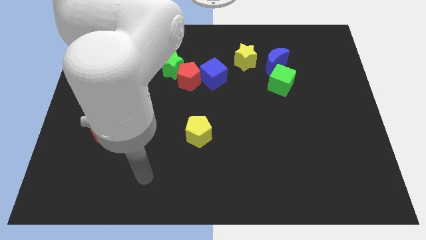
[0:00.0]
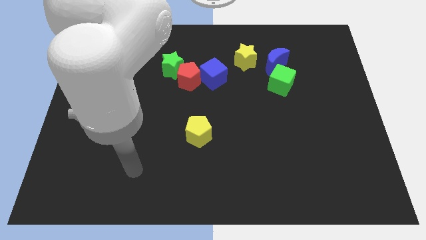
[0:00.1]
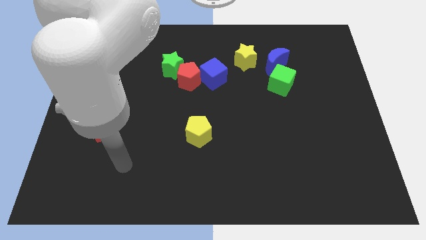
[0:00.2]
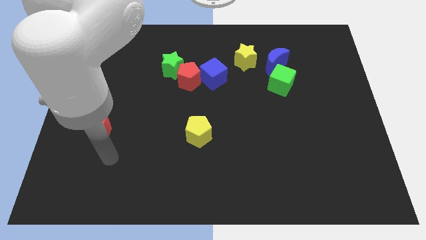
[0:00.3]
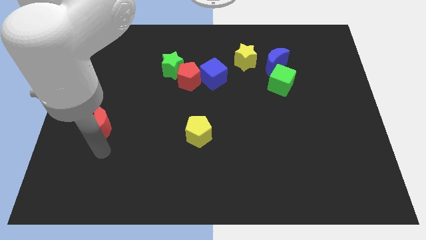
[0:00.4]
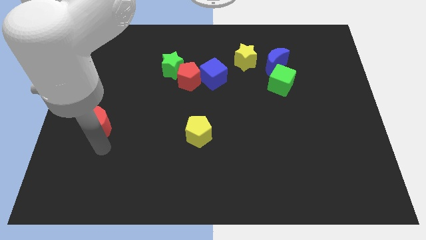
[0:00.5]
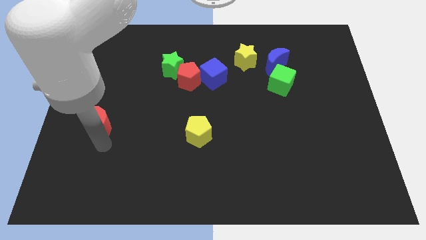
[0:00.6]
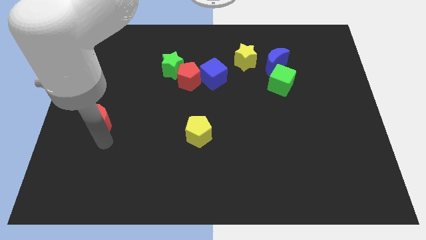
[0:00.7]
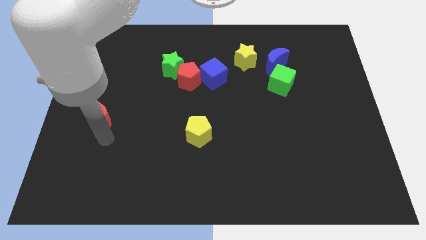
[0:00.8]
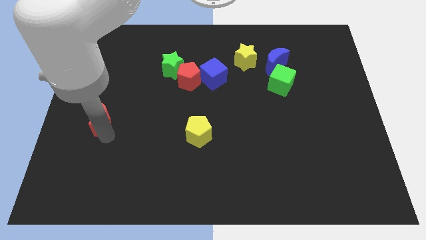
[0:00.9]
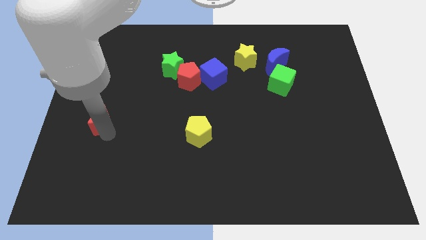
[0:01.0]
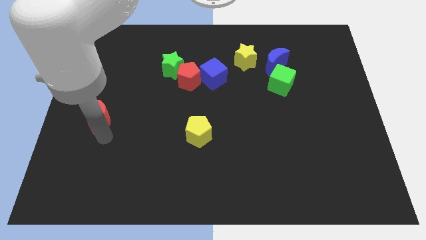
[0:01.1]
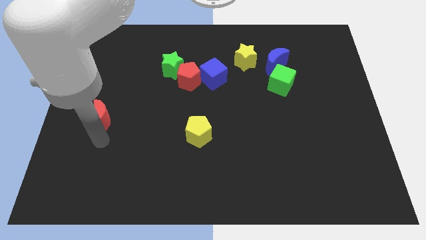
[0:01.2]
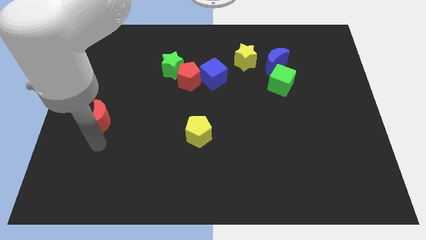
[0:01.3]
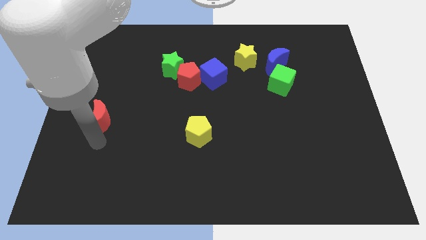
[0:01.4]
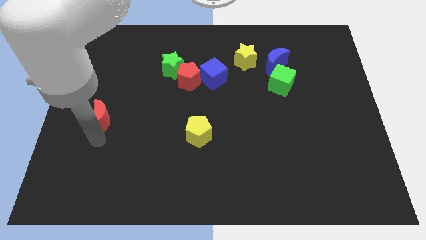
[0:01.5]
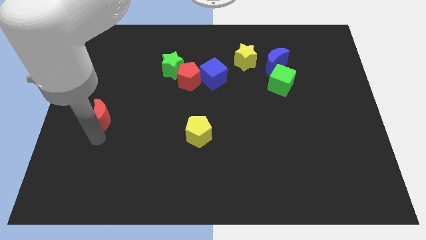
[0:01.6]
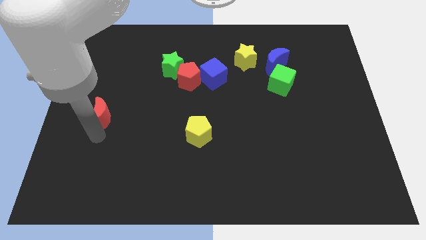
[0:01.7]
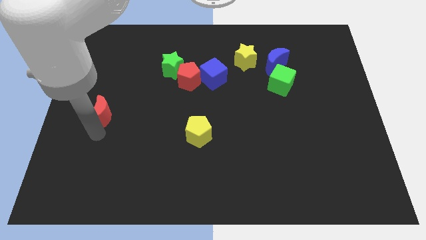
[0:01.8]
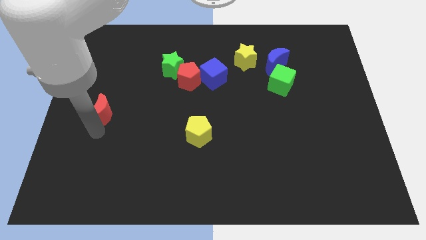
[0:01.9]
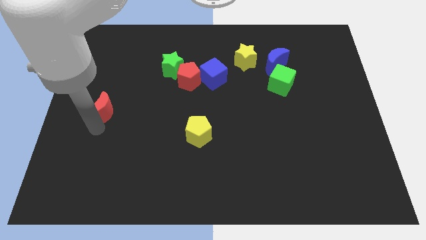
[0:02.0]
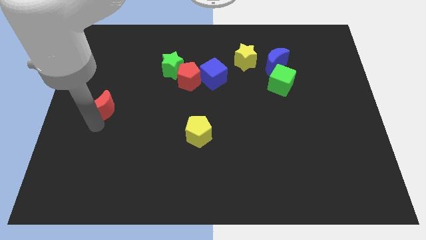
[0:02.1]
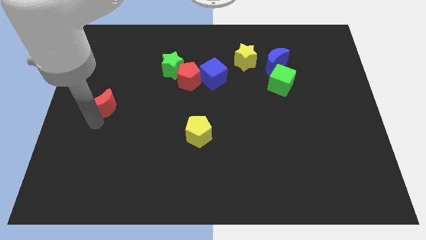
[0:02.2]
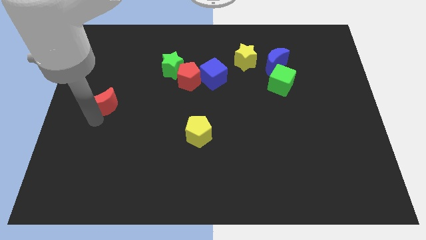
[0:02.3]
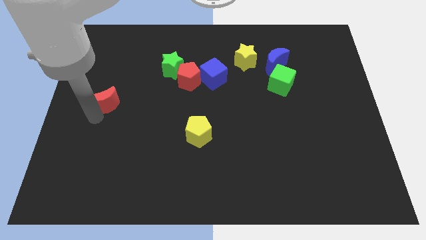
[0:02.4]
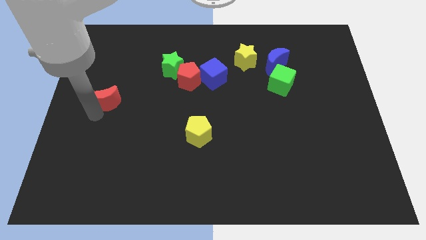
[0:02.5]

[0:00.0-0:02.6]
push the red moon somewhat upwards

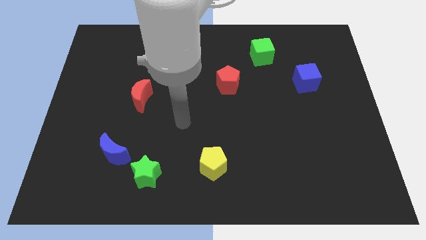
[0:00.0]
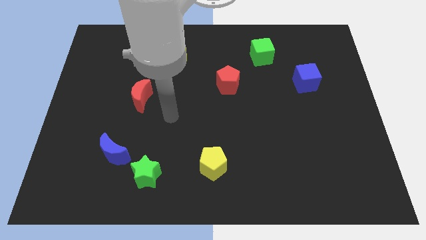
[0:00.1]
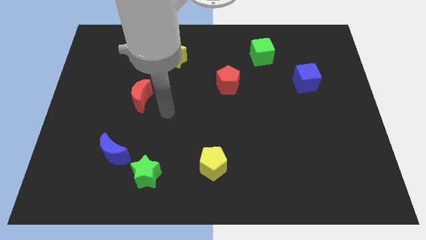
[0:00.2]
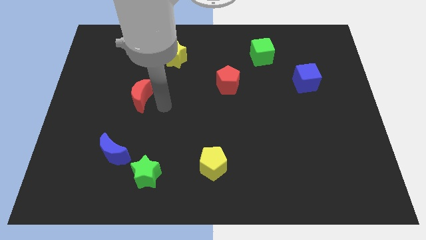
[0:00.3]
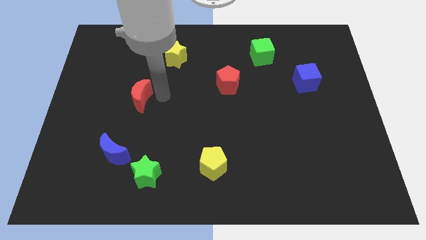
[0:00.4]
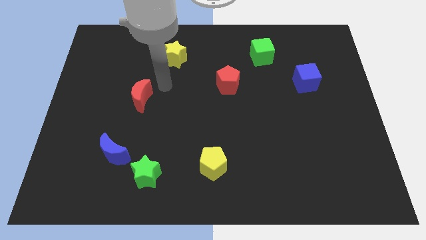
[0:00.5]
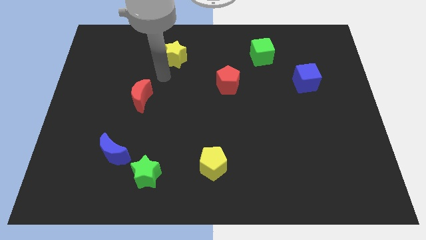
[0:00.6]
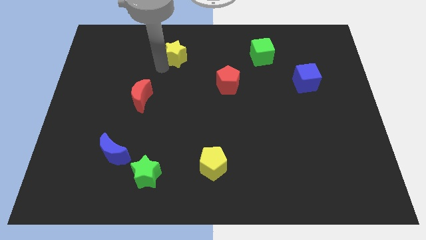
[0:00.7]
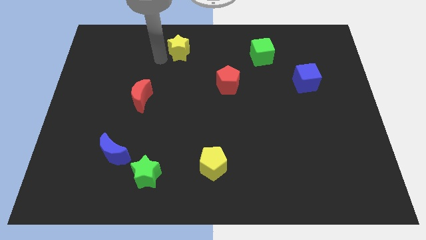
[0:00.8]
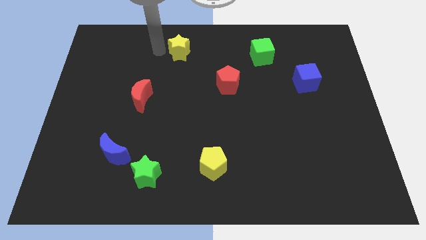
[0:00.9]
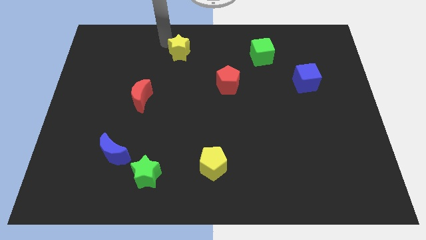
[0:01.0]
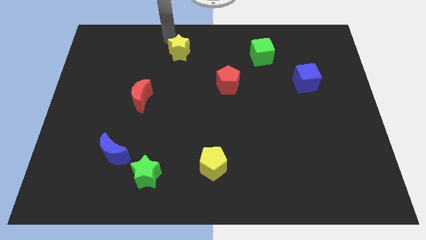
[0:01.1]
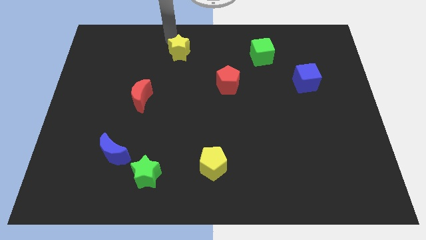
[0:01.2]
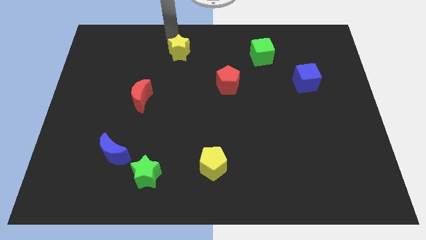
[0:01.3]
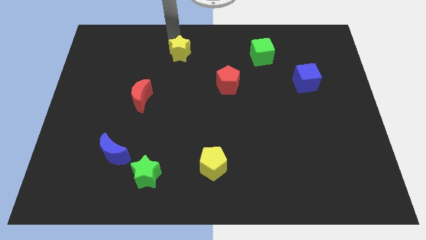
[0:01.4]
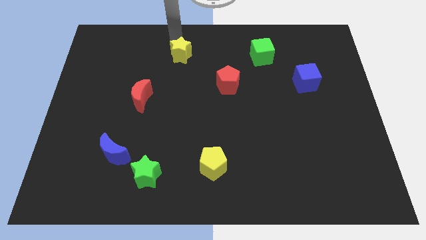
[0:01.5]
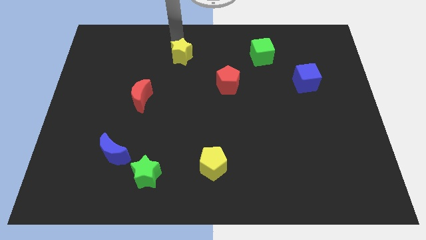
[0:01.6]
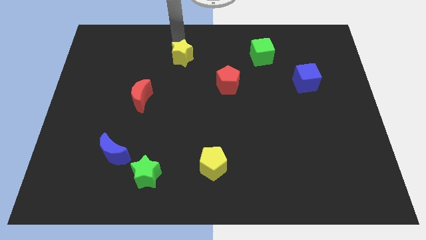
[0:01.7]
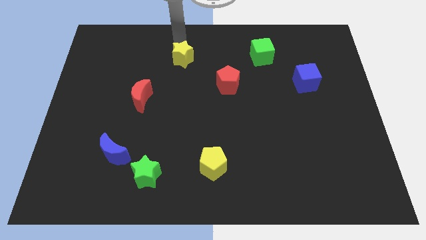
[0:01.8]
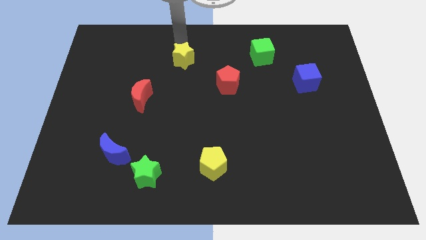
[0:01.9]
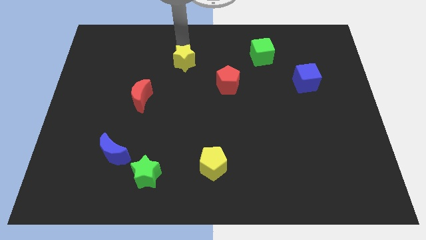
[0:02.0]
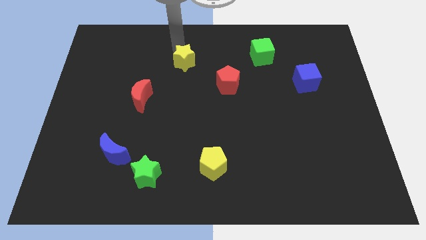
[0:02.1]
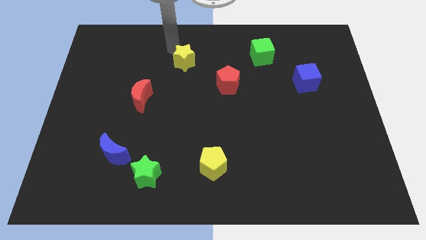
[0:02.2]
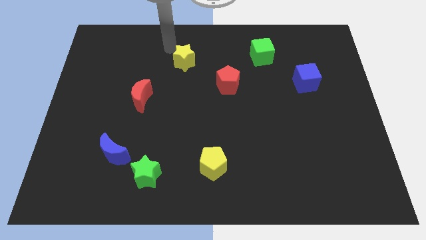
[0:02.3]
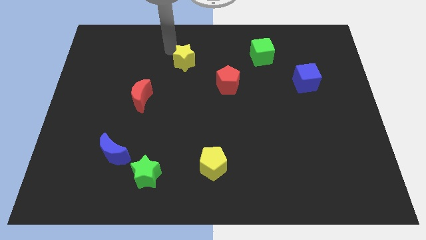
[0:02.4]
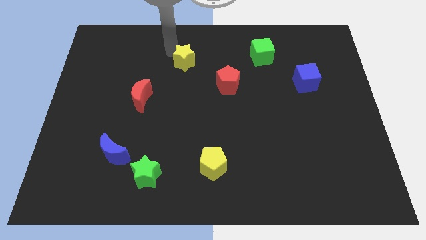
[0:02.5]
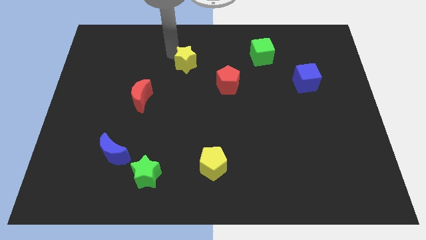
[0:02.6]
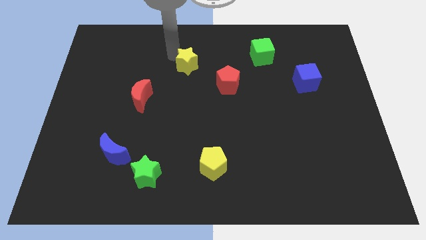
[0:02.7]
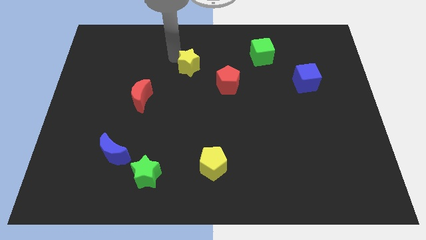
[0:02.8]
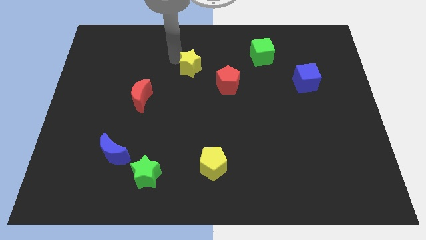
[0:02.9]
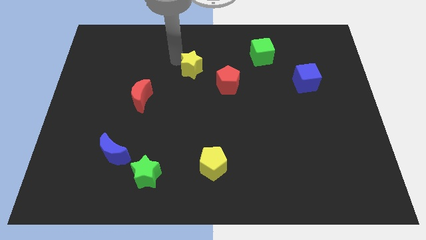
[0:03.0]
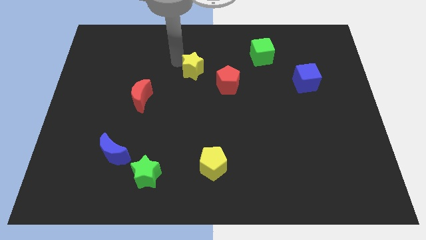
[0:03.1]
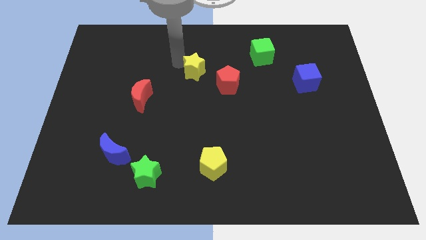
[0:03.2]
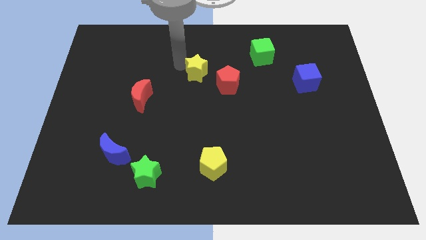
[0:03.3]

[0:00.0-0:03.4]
slightly push the yellow star downwards and right diagonally

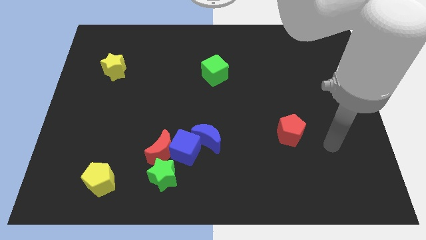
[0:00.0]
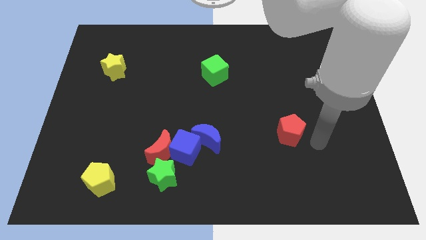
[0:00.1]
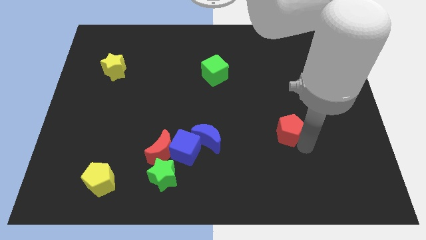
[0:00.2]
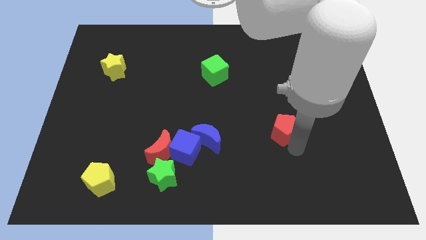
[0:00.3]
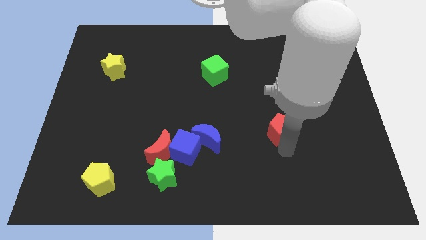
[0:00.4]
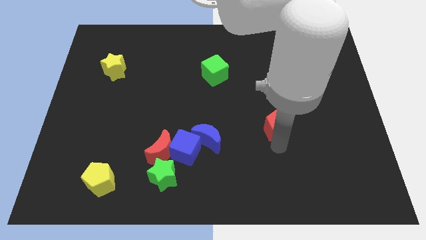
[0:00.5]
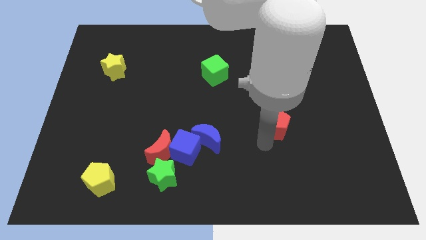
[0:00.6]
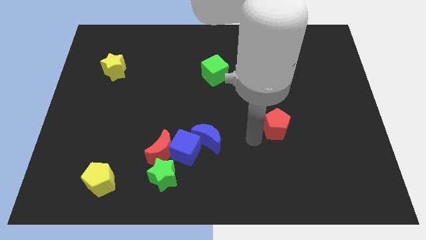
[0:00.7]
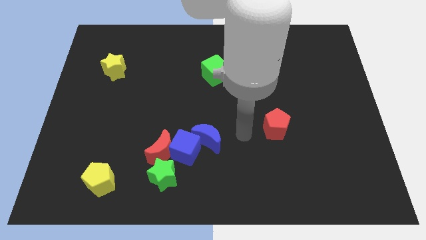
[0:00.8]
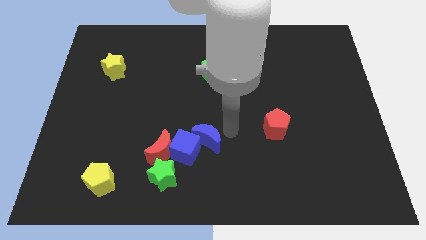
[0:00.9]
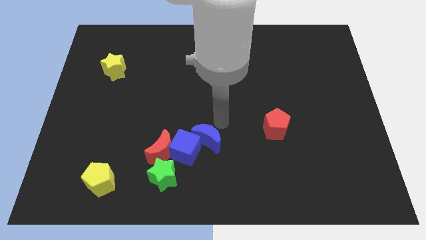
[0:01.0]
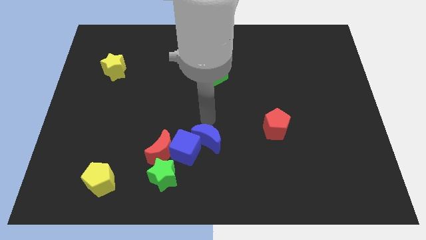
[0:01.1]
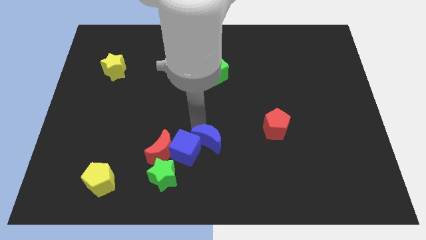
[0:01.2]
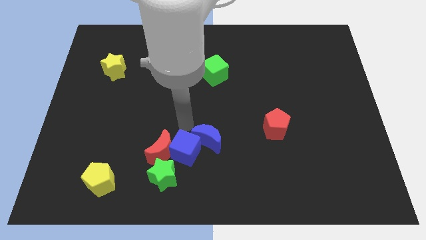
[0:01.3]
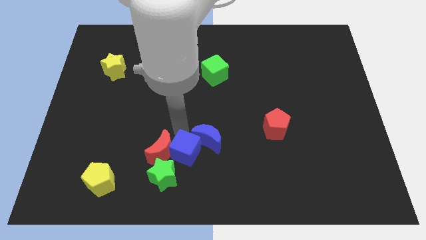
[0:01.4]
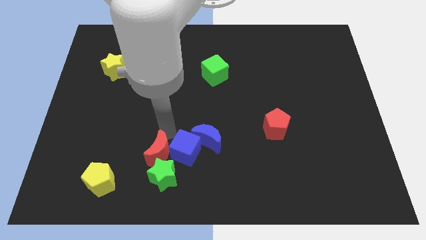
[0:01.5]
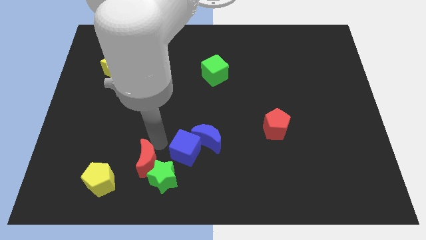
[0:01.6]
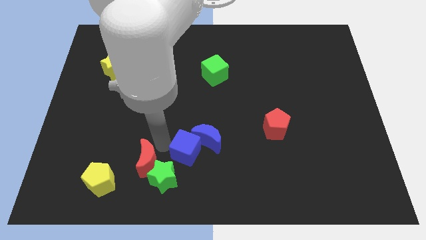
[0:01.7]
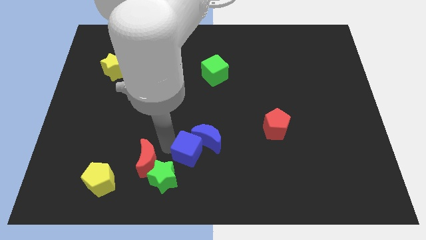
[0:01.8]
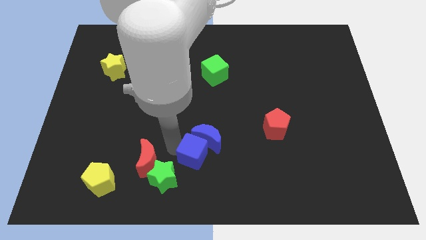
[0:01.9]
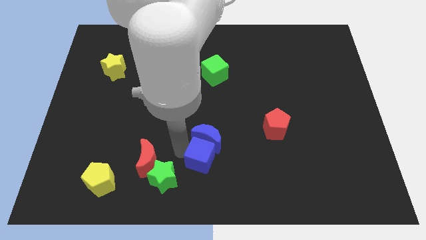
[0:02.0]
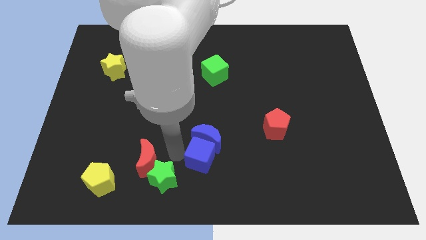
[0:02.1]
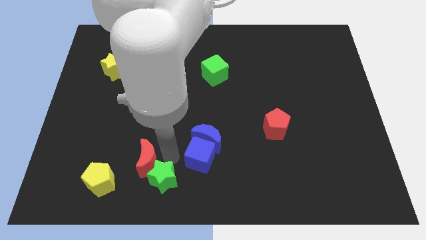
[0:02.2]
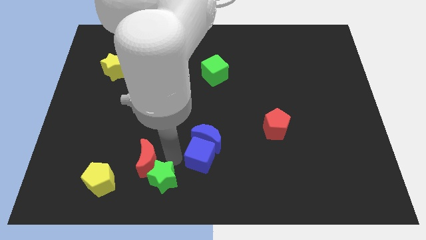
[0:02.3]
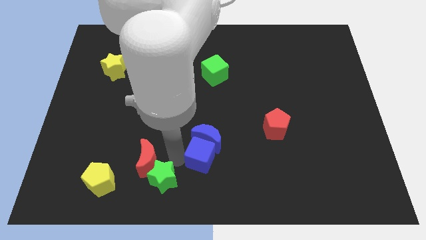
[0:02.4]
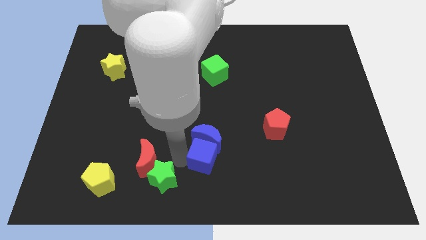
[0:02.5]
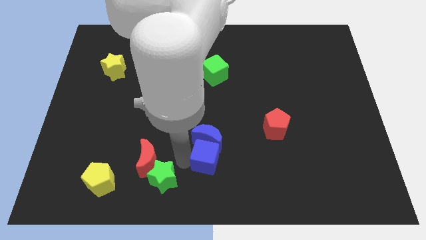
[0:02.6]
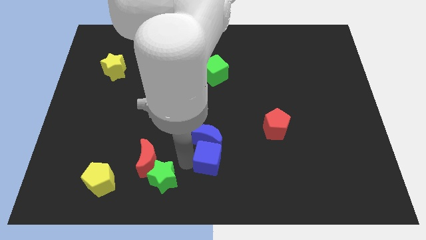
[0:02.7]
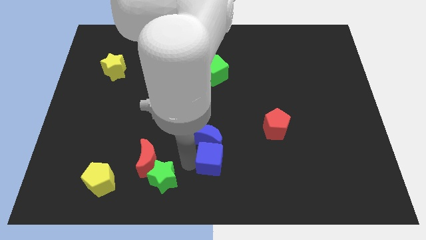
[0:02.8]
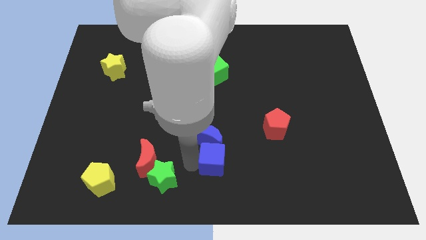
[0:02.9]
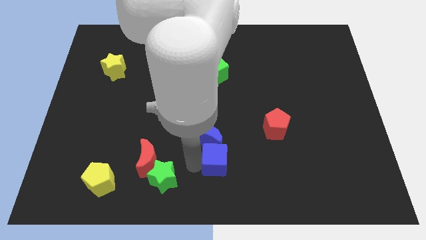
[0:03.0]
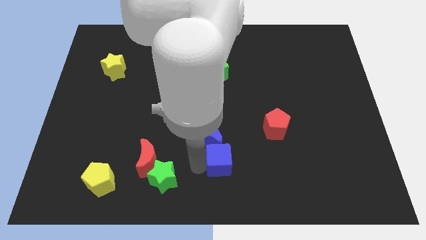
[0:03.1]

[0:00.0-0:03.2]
slide the blue cube right a little bit
